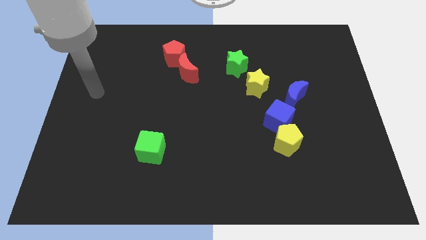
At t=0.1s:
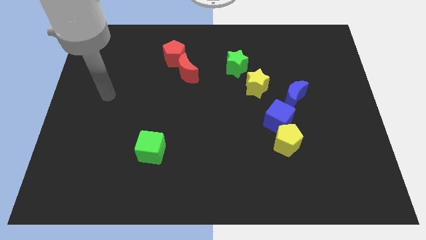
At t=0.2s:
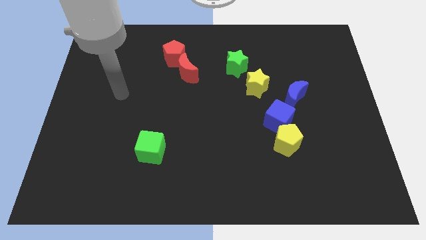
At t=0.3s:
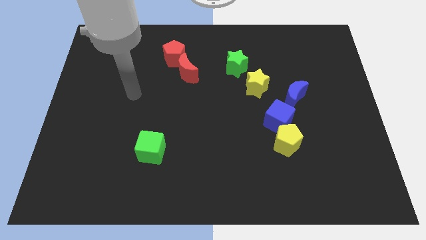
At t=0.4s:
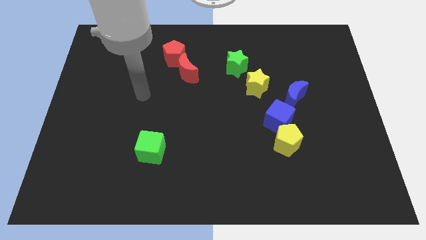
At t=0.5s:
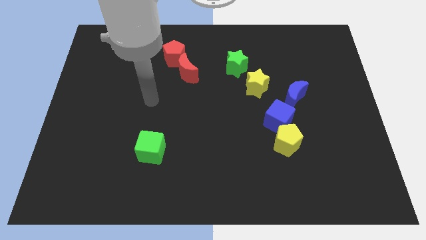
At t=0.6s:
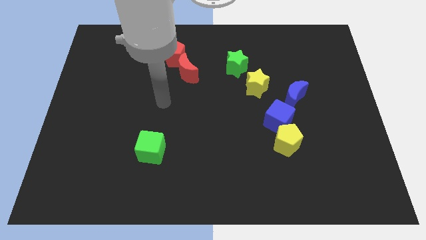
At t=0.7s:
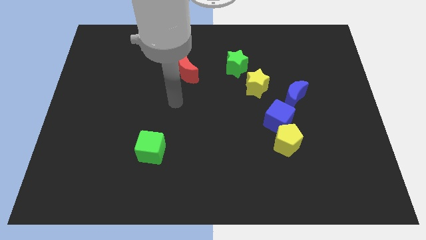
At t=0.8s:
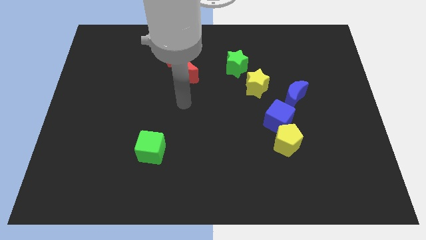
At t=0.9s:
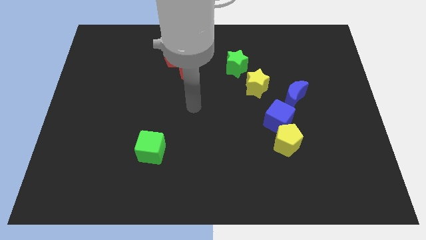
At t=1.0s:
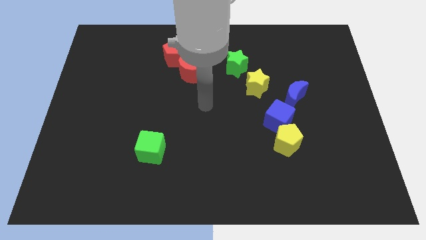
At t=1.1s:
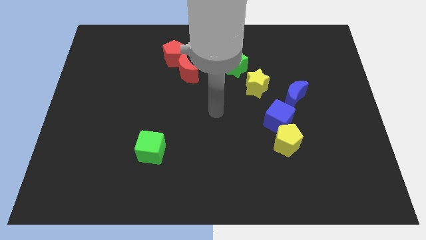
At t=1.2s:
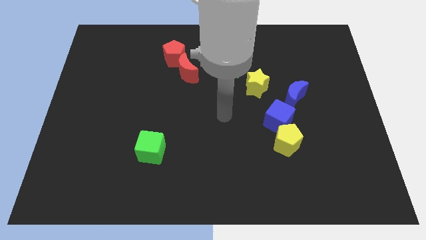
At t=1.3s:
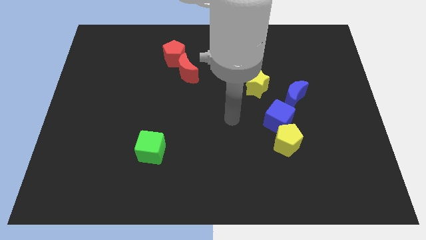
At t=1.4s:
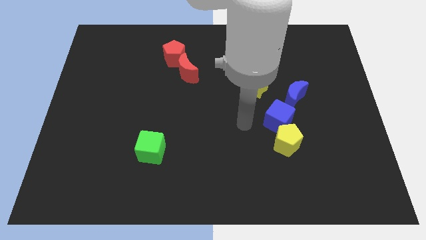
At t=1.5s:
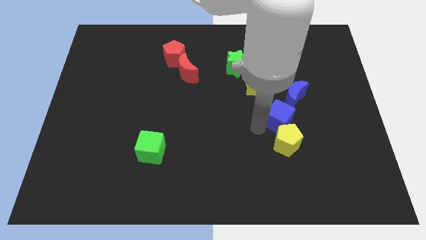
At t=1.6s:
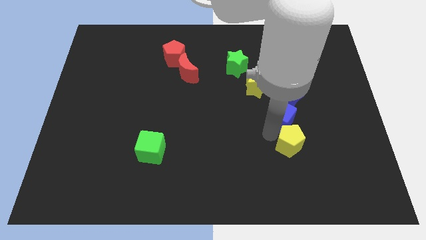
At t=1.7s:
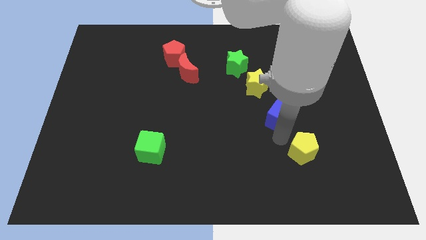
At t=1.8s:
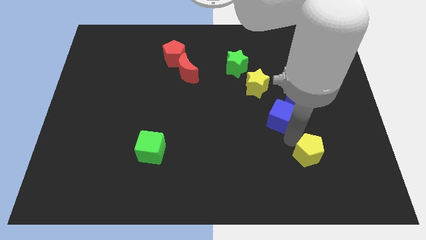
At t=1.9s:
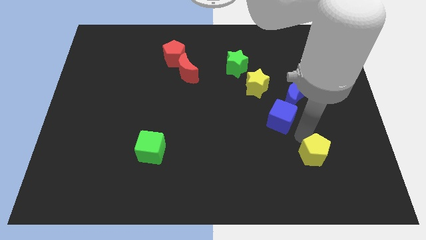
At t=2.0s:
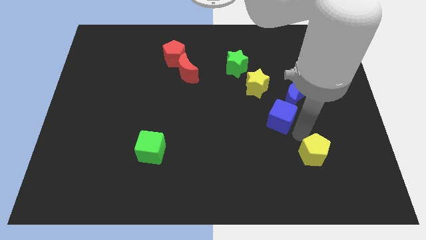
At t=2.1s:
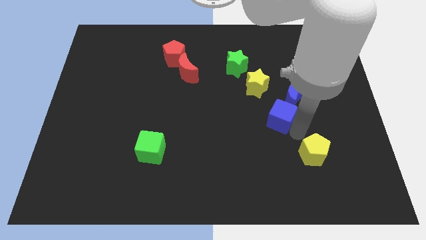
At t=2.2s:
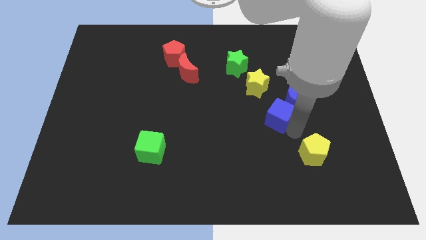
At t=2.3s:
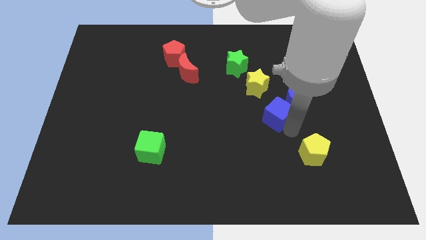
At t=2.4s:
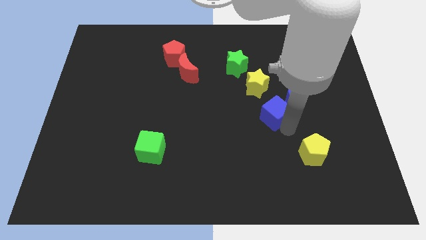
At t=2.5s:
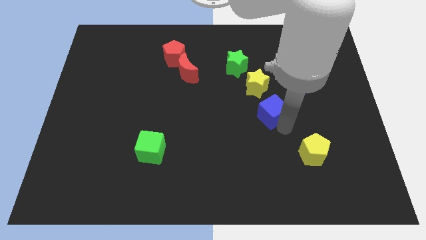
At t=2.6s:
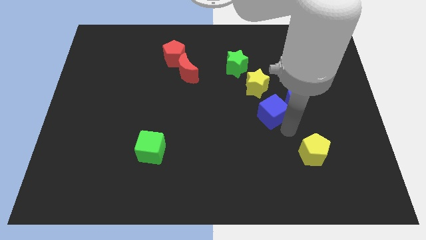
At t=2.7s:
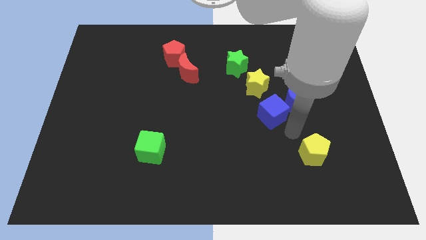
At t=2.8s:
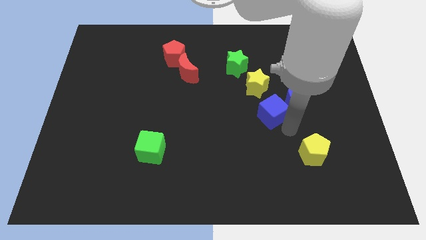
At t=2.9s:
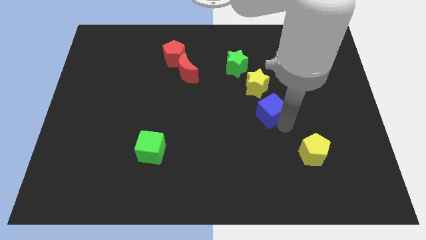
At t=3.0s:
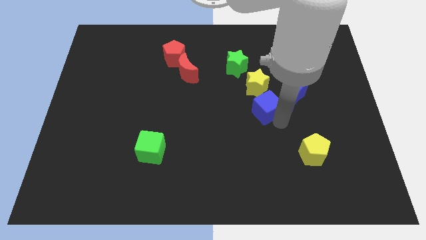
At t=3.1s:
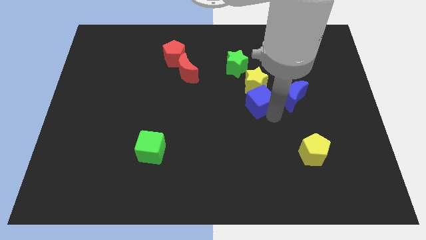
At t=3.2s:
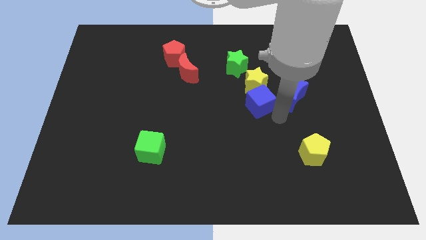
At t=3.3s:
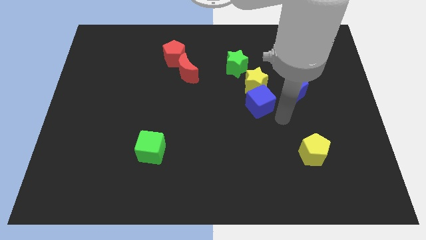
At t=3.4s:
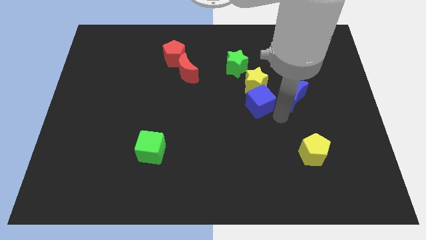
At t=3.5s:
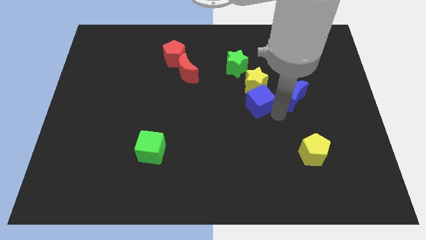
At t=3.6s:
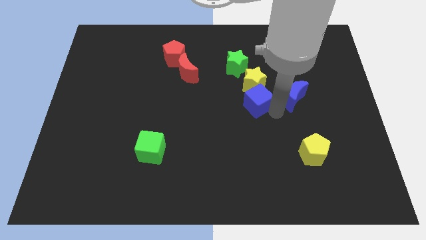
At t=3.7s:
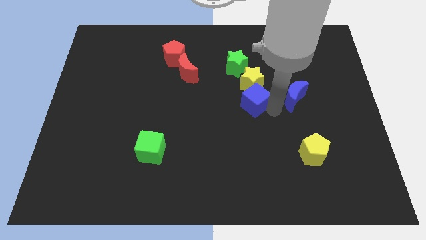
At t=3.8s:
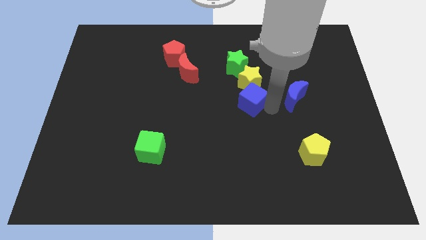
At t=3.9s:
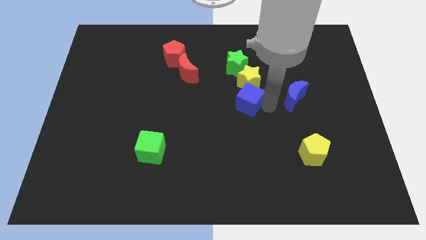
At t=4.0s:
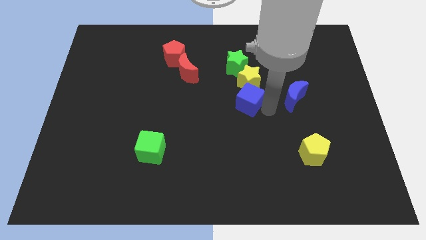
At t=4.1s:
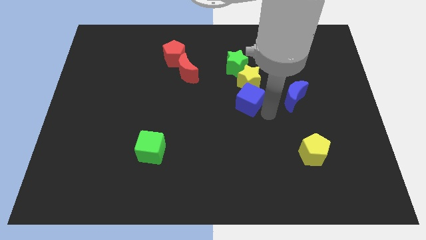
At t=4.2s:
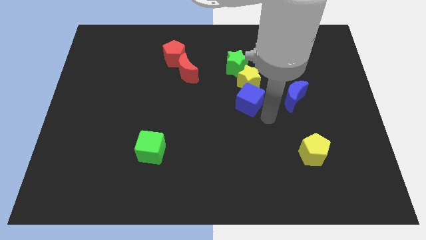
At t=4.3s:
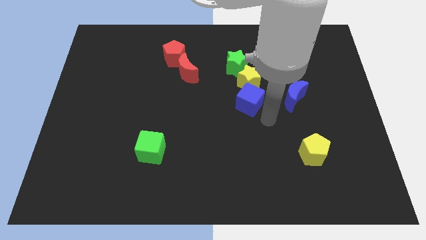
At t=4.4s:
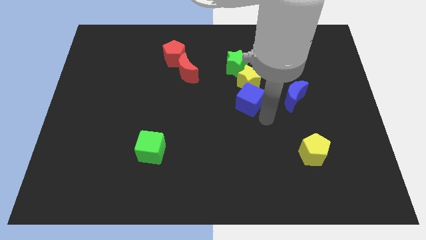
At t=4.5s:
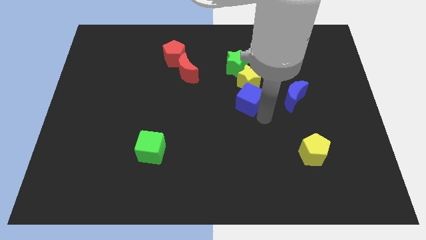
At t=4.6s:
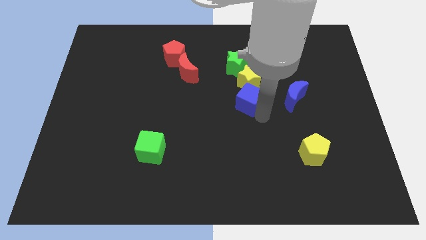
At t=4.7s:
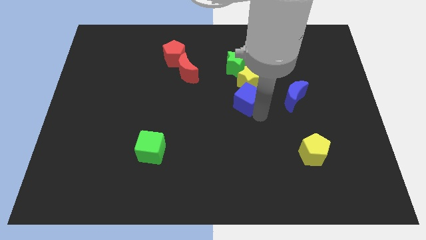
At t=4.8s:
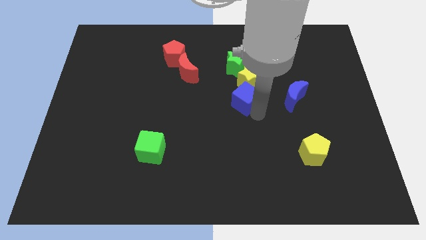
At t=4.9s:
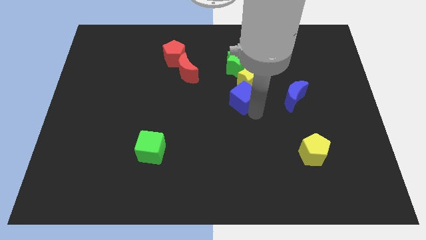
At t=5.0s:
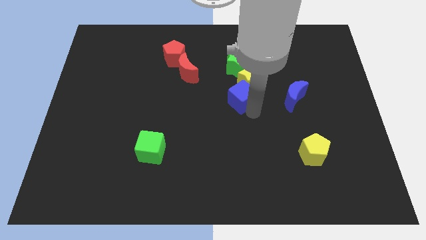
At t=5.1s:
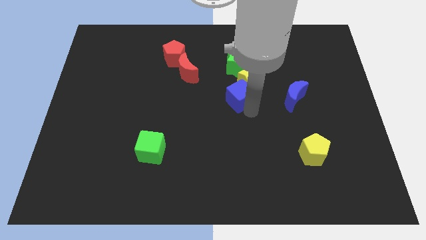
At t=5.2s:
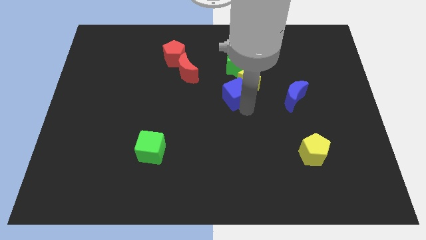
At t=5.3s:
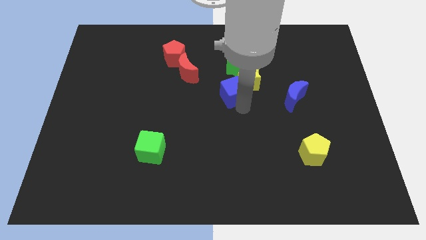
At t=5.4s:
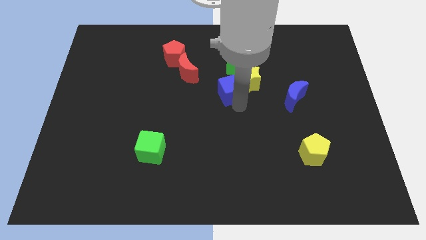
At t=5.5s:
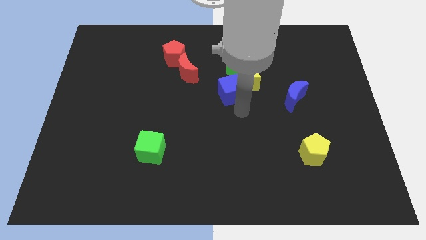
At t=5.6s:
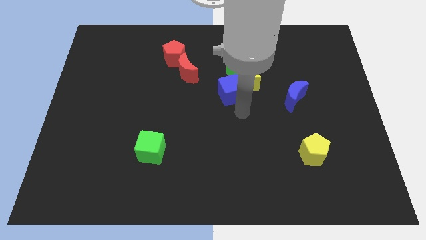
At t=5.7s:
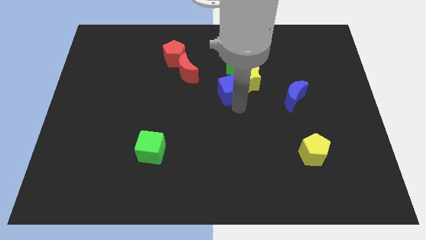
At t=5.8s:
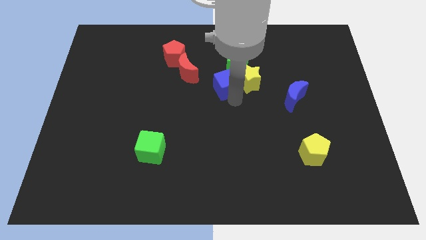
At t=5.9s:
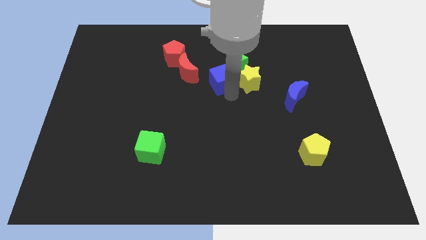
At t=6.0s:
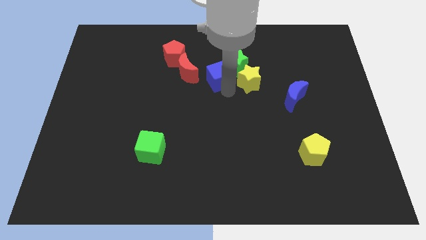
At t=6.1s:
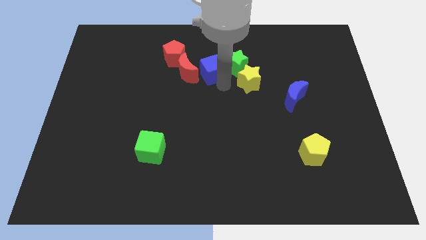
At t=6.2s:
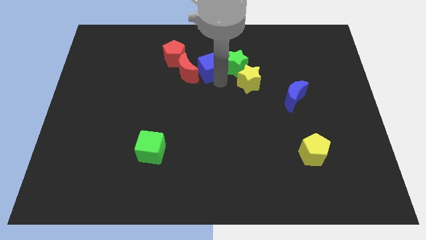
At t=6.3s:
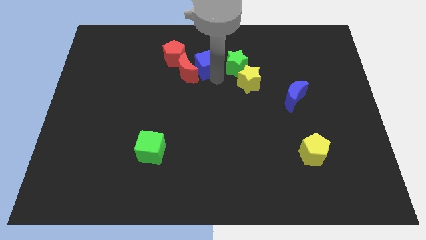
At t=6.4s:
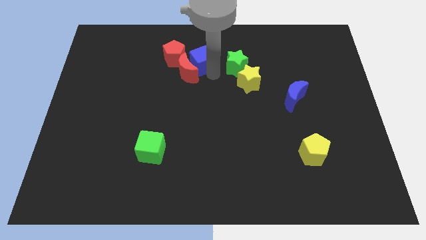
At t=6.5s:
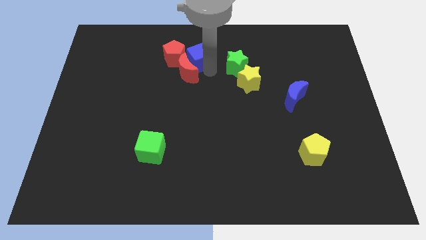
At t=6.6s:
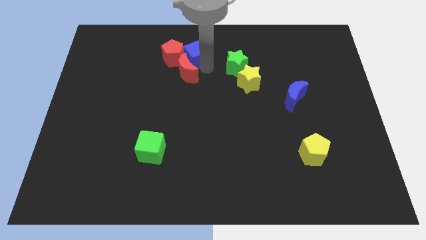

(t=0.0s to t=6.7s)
slide the blue cube next to the red pentagon

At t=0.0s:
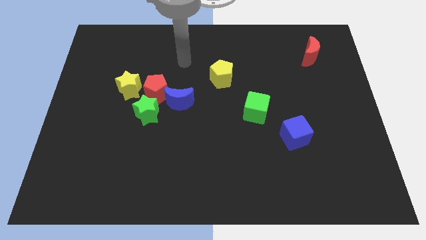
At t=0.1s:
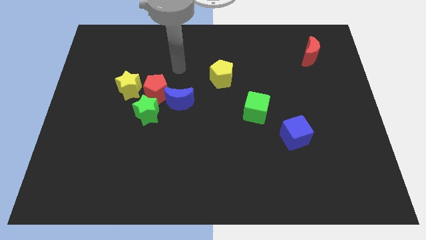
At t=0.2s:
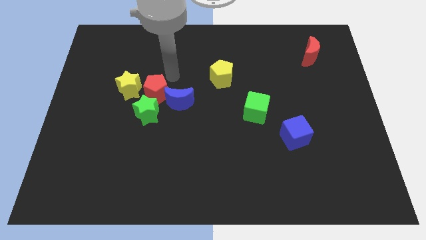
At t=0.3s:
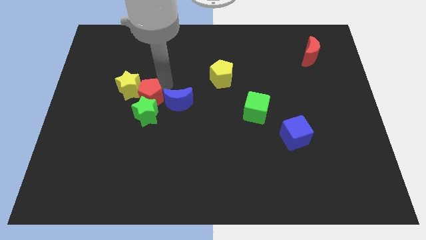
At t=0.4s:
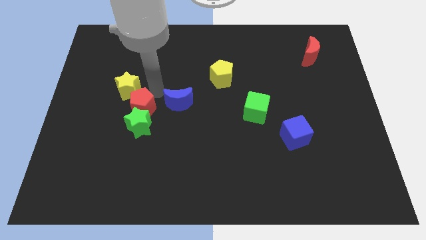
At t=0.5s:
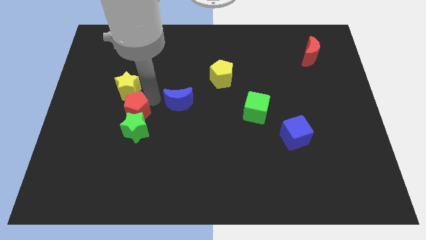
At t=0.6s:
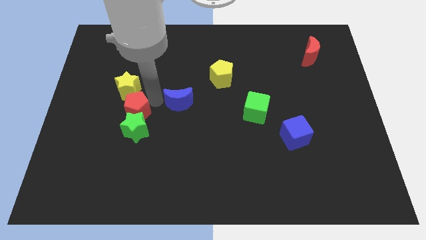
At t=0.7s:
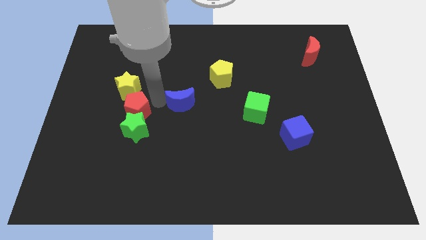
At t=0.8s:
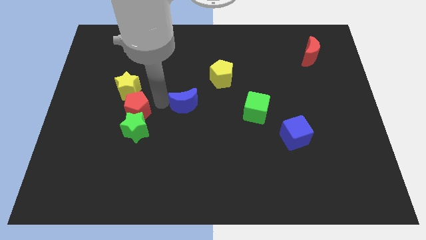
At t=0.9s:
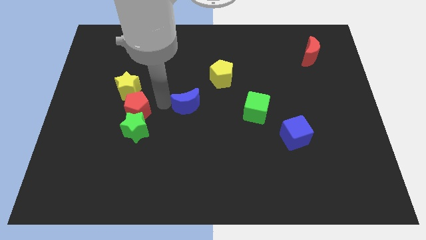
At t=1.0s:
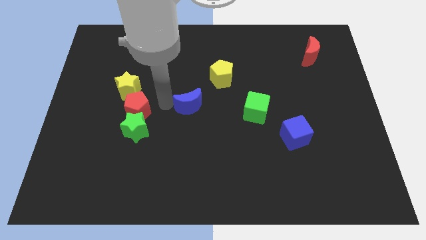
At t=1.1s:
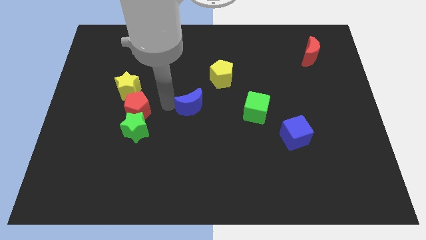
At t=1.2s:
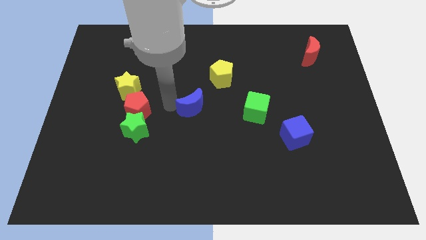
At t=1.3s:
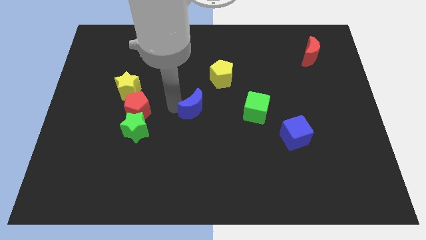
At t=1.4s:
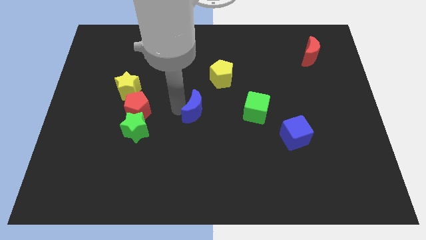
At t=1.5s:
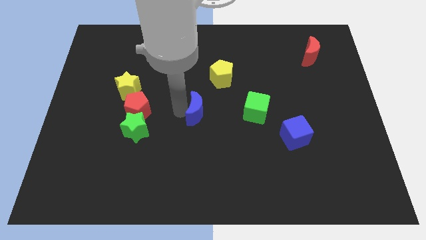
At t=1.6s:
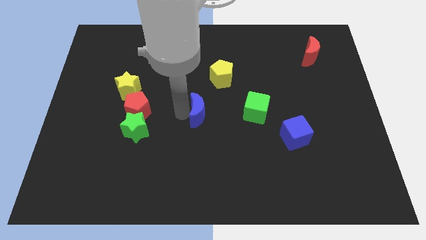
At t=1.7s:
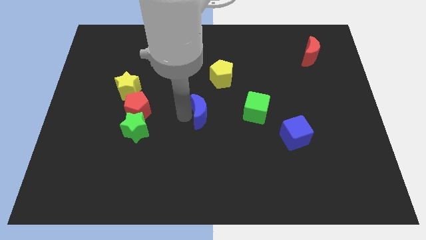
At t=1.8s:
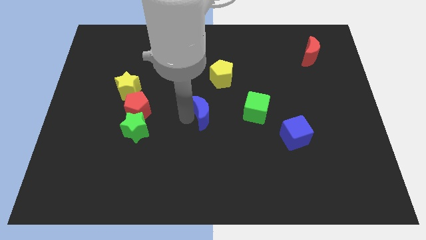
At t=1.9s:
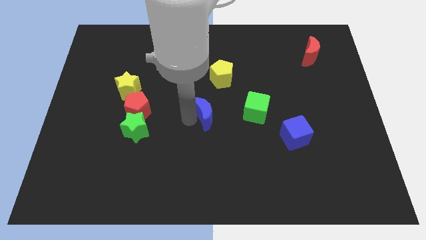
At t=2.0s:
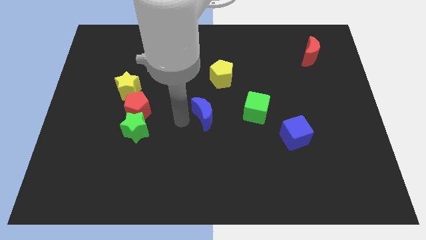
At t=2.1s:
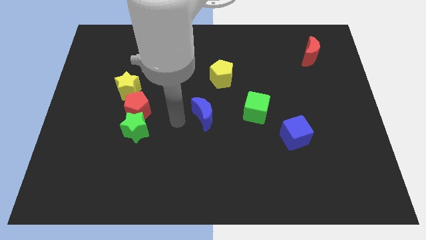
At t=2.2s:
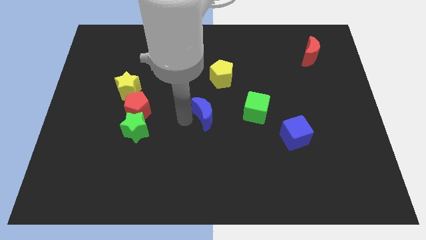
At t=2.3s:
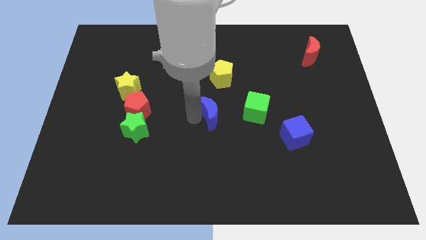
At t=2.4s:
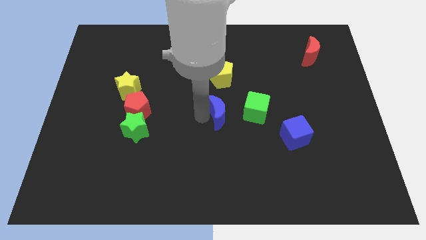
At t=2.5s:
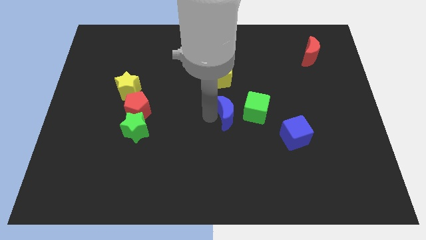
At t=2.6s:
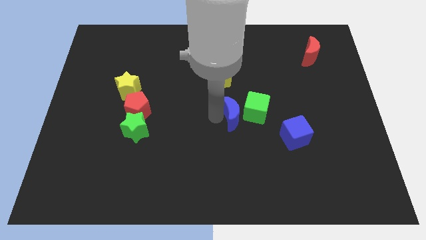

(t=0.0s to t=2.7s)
push the blue moon next to the green cube
